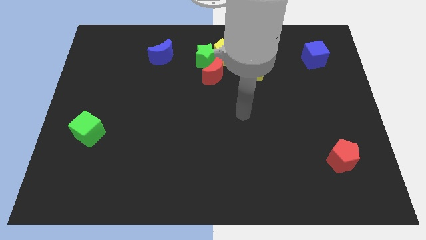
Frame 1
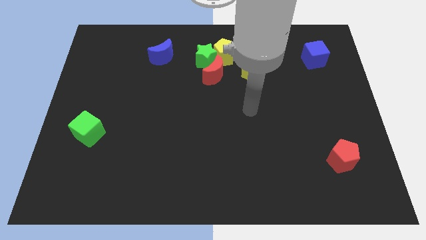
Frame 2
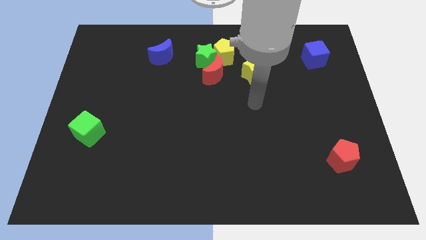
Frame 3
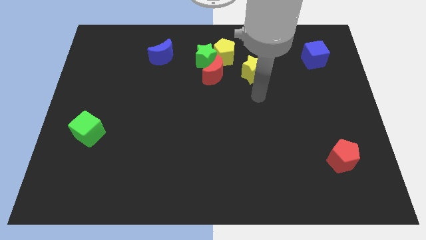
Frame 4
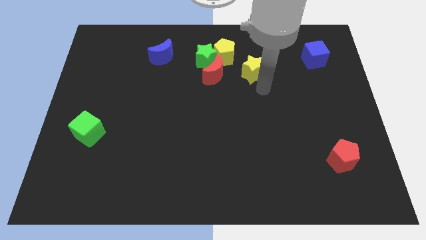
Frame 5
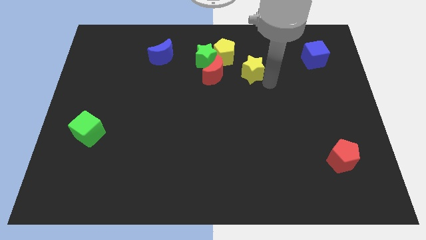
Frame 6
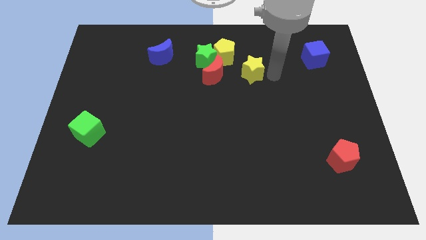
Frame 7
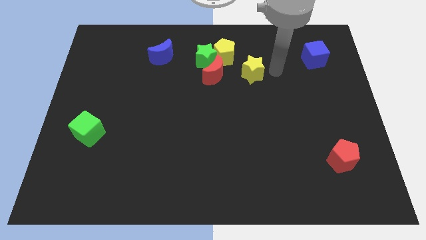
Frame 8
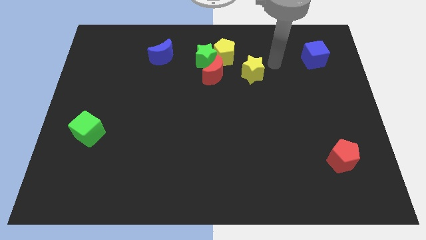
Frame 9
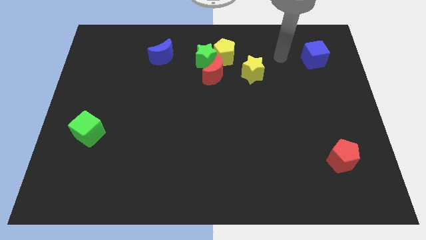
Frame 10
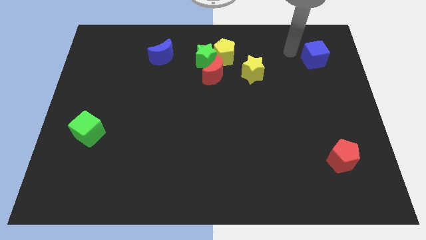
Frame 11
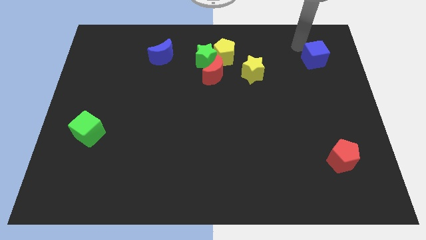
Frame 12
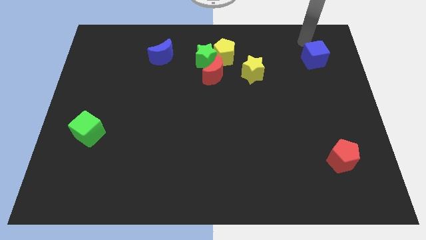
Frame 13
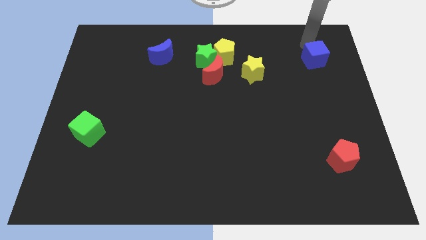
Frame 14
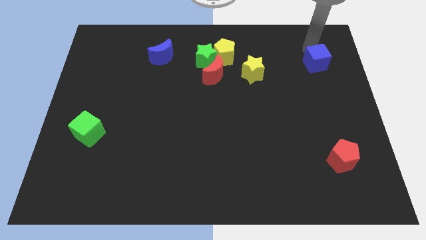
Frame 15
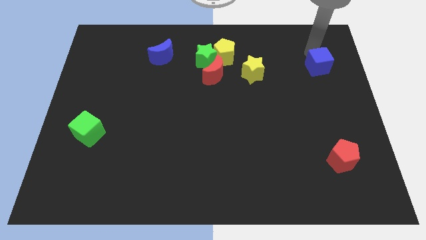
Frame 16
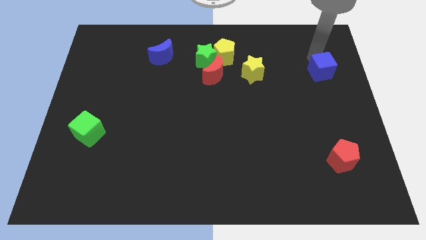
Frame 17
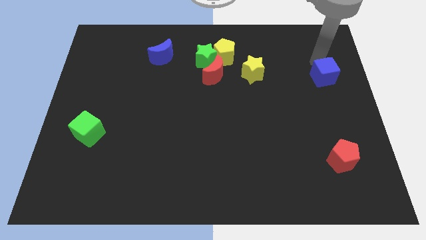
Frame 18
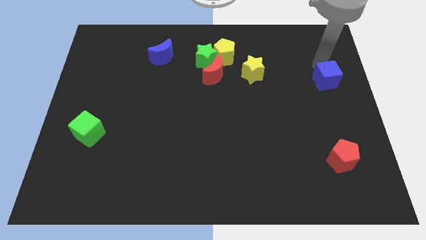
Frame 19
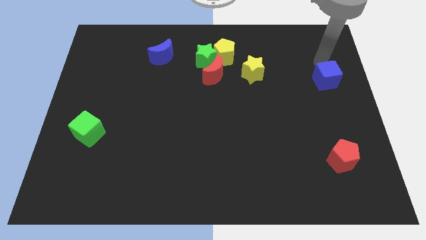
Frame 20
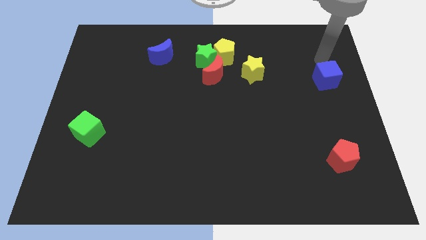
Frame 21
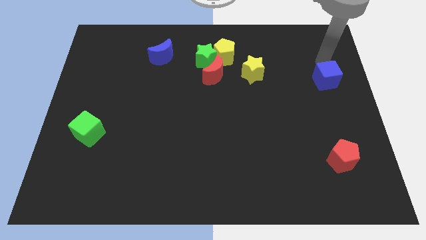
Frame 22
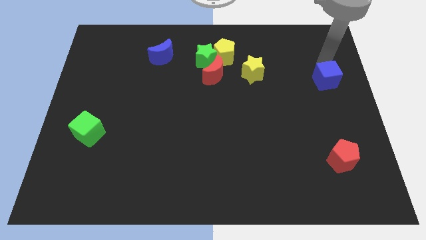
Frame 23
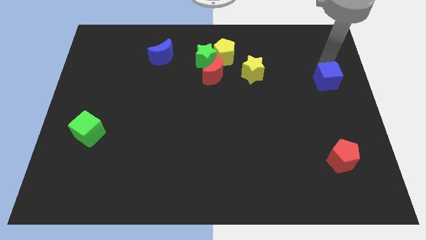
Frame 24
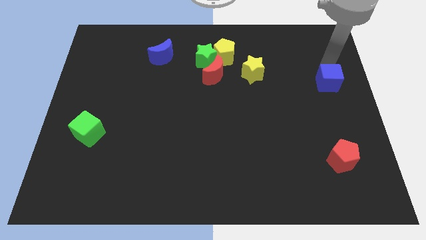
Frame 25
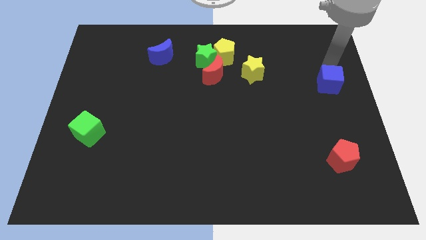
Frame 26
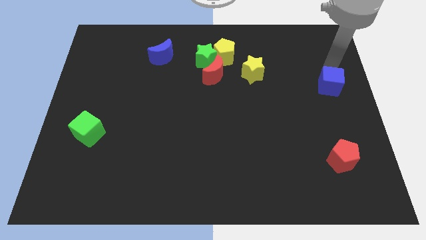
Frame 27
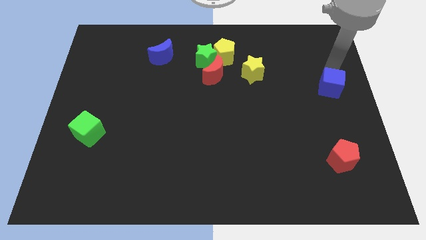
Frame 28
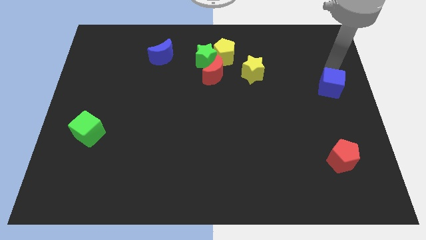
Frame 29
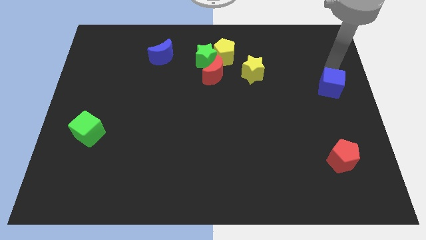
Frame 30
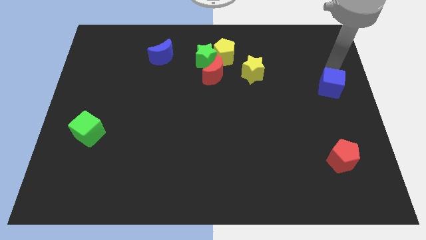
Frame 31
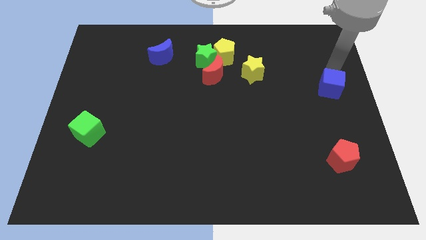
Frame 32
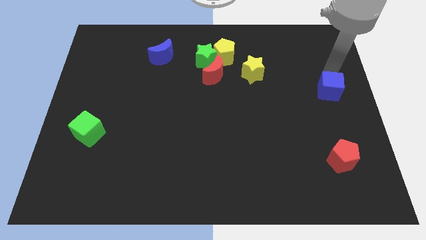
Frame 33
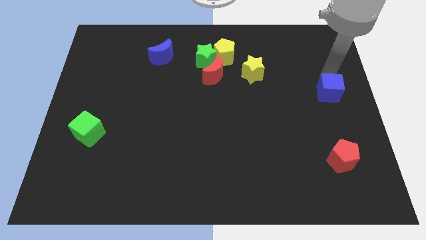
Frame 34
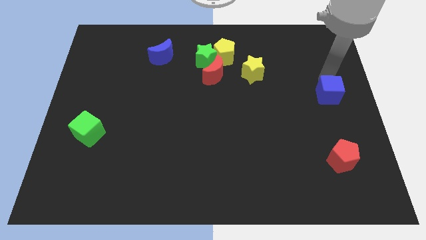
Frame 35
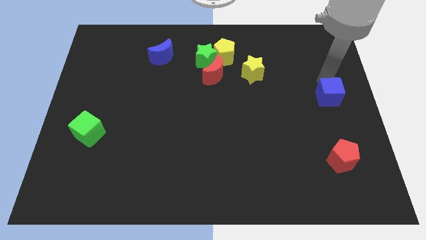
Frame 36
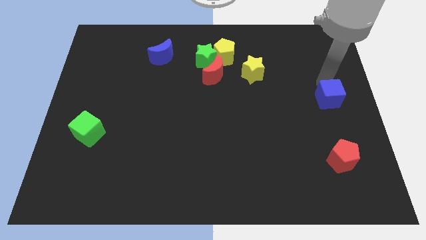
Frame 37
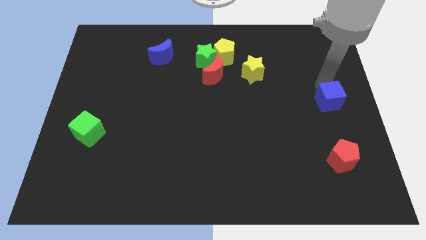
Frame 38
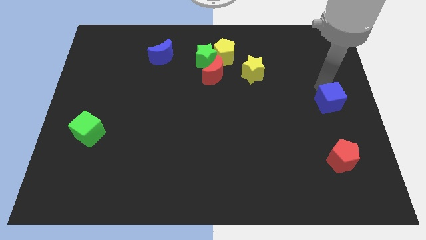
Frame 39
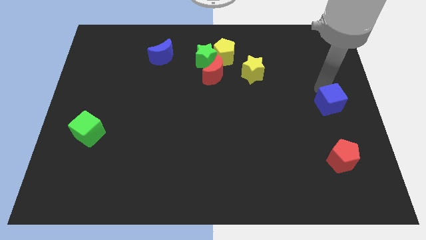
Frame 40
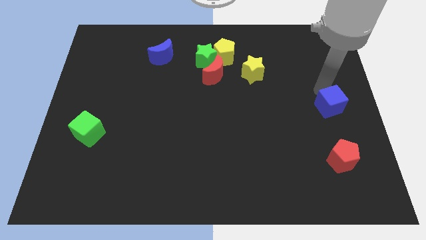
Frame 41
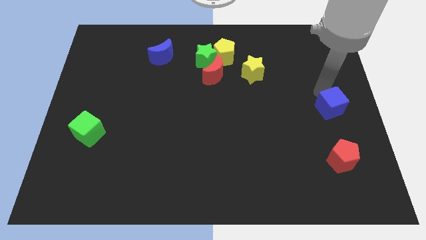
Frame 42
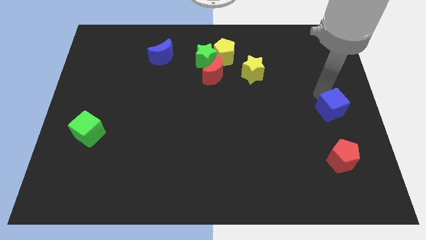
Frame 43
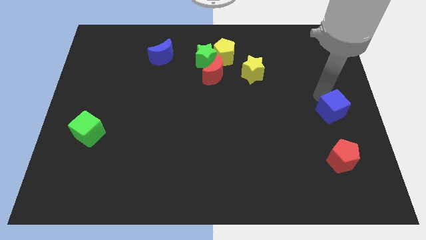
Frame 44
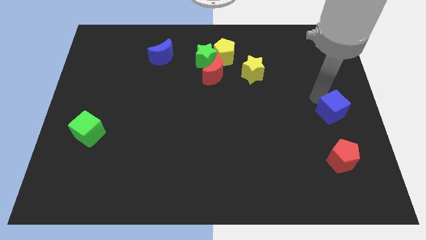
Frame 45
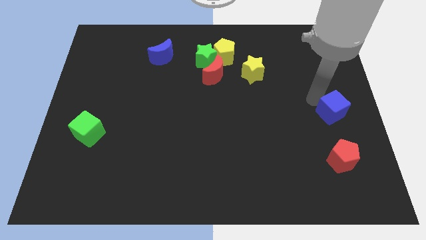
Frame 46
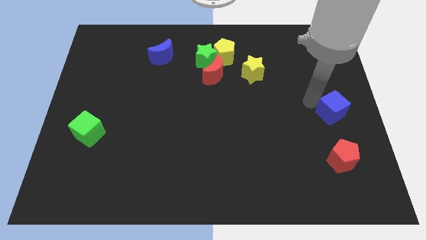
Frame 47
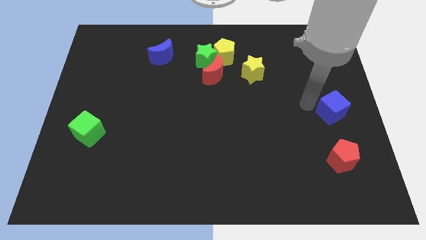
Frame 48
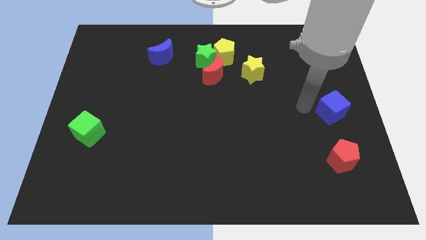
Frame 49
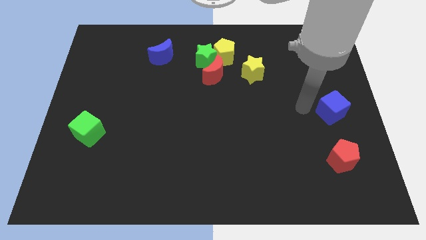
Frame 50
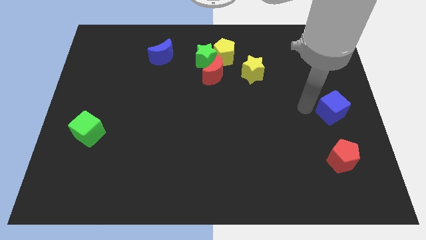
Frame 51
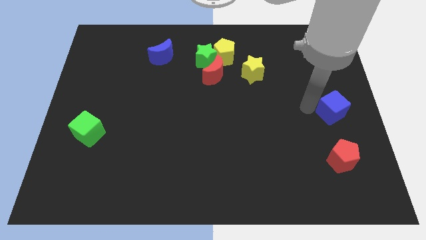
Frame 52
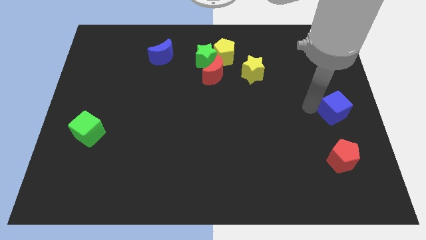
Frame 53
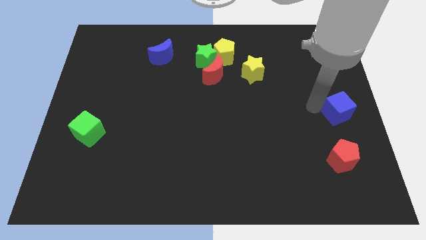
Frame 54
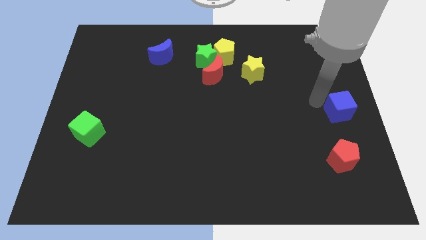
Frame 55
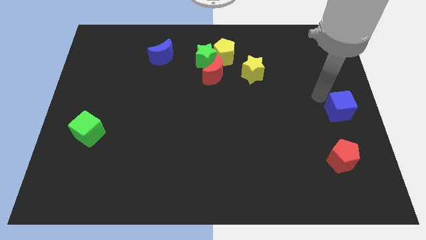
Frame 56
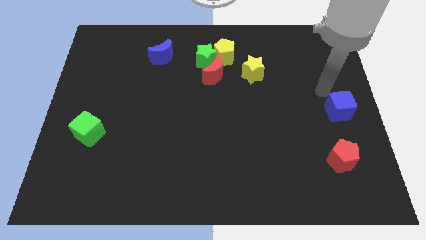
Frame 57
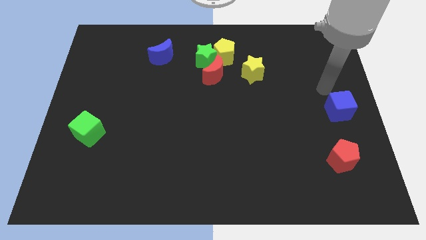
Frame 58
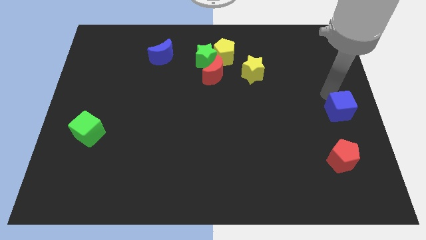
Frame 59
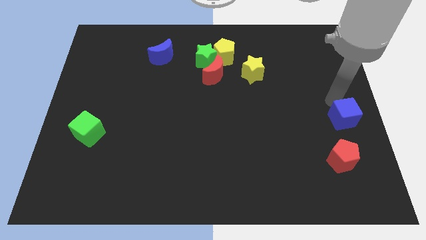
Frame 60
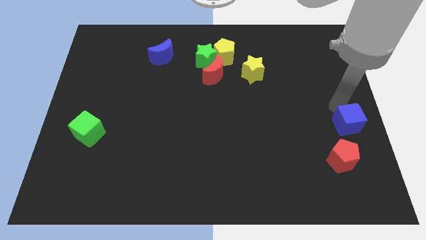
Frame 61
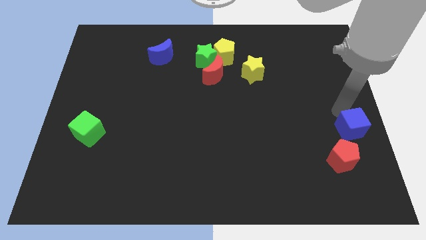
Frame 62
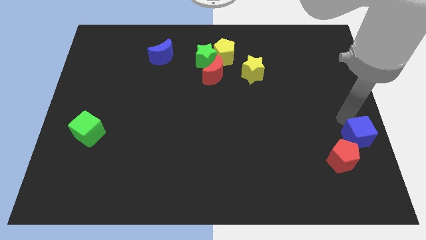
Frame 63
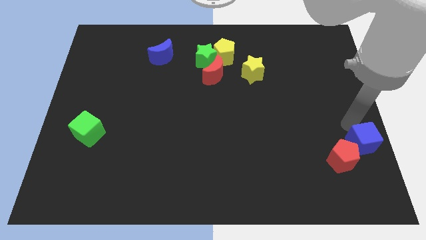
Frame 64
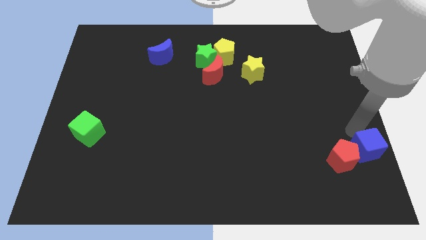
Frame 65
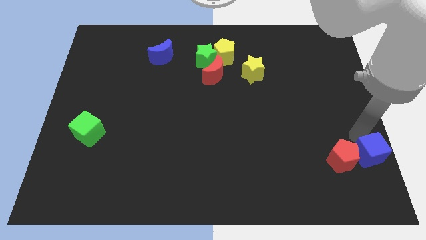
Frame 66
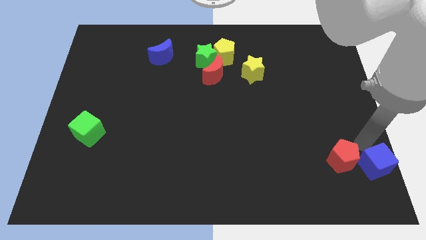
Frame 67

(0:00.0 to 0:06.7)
put the blue cube to the bottom right
